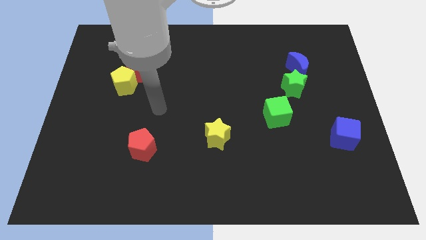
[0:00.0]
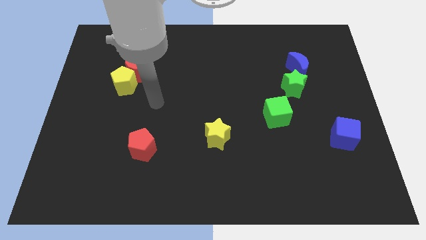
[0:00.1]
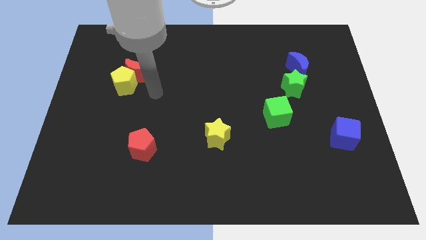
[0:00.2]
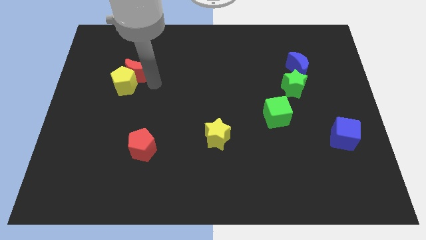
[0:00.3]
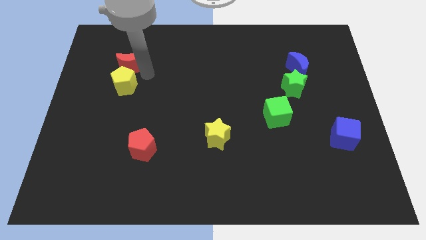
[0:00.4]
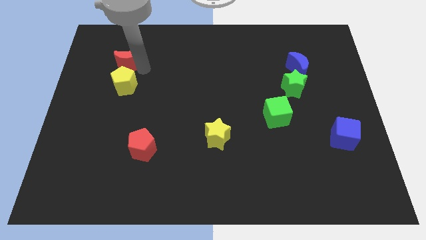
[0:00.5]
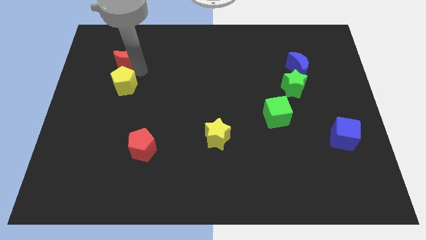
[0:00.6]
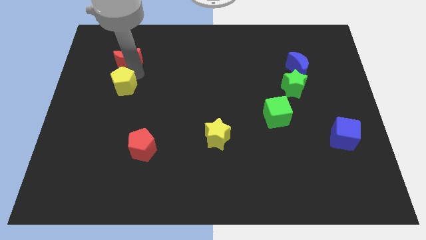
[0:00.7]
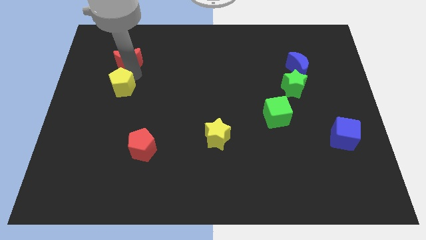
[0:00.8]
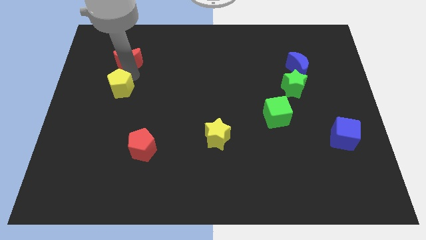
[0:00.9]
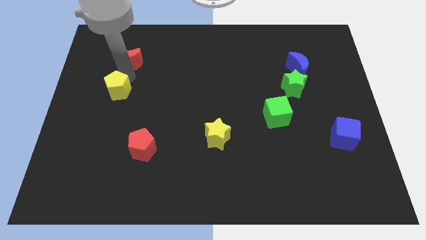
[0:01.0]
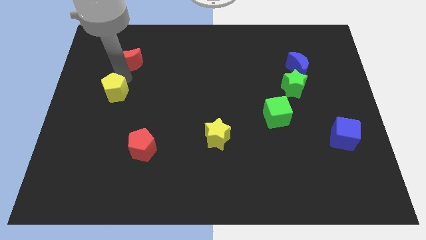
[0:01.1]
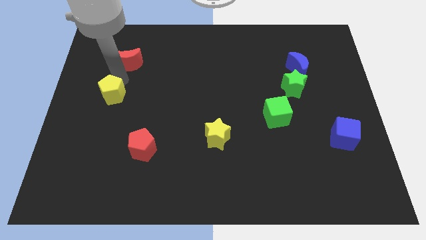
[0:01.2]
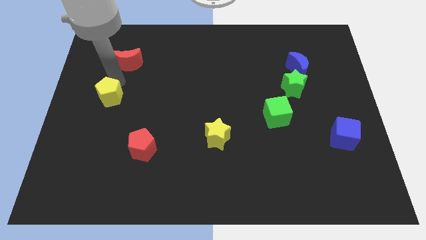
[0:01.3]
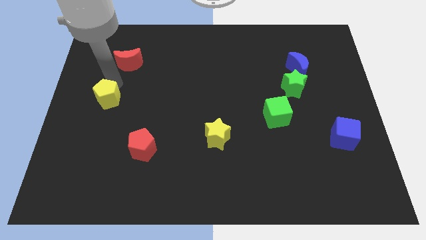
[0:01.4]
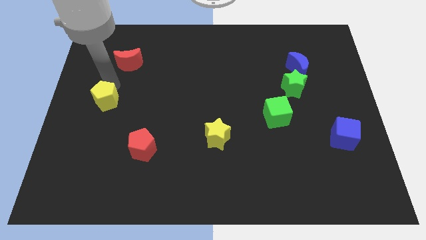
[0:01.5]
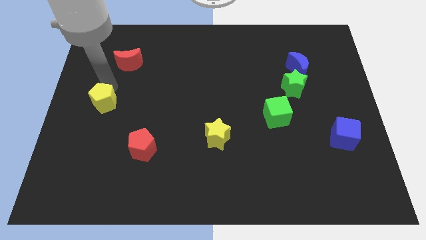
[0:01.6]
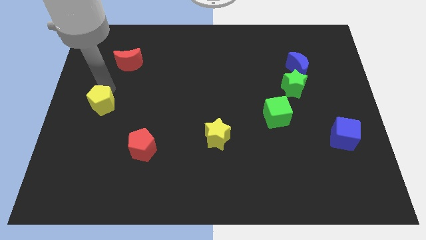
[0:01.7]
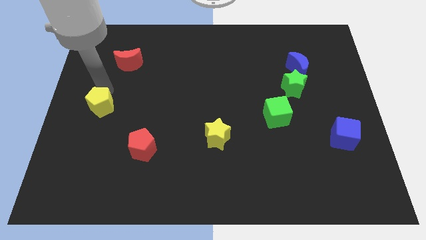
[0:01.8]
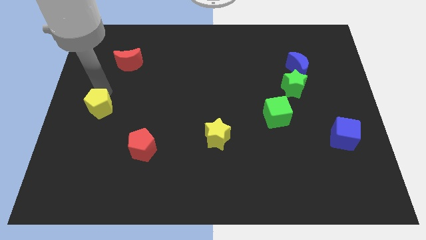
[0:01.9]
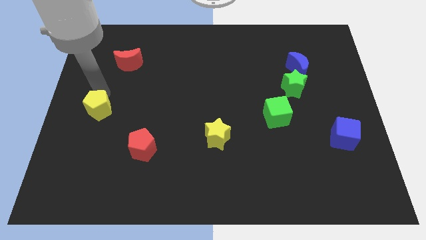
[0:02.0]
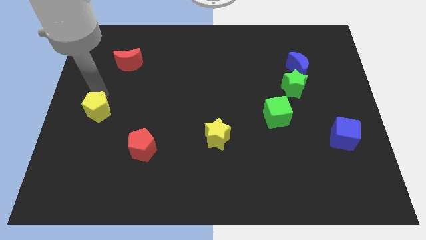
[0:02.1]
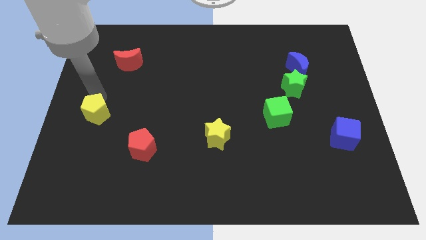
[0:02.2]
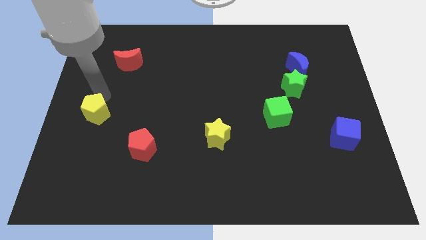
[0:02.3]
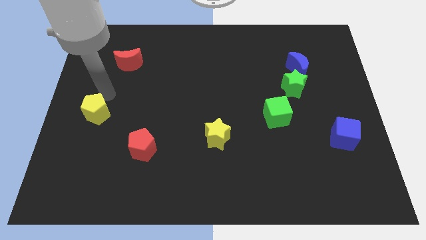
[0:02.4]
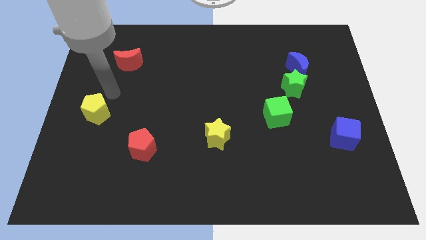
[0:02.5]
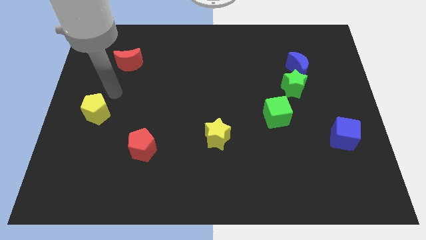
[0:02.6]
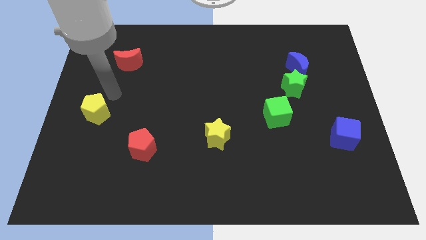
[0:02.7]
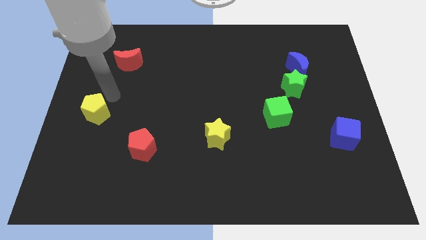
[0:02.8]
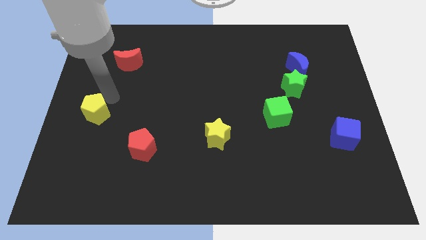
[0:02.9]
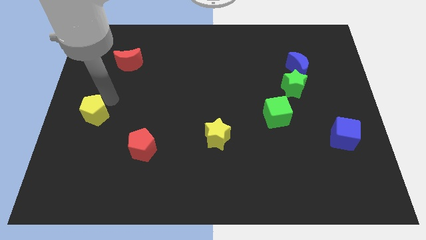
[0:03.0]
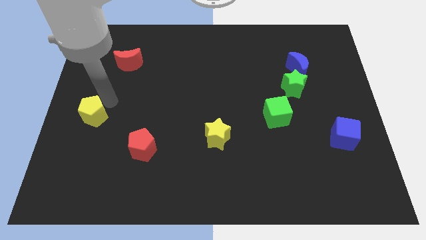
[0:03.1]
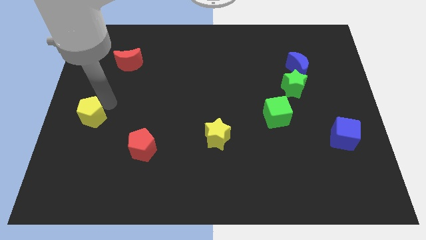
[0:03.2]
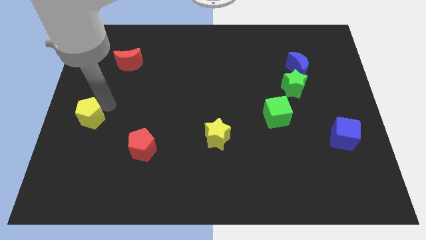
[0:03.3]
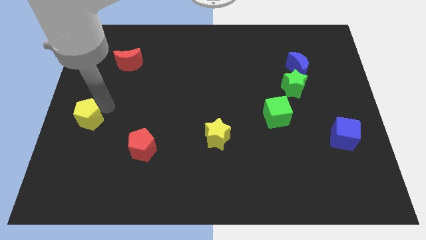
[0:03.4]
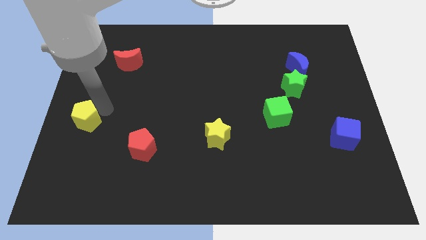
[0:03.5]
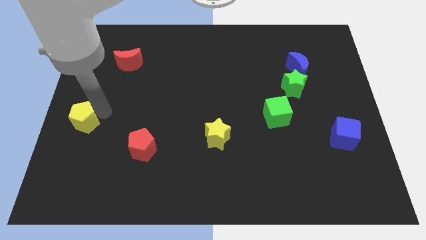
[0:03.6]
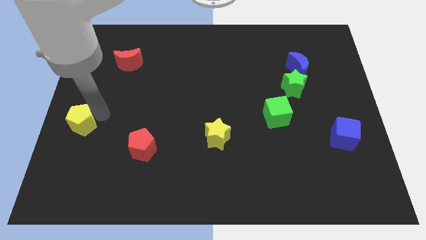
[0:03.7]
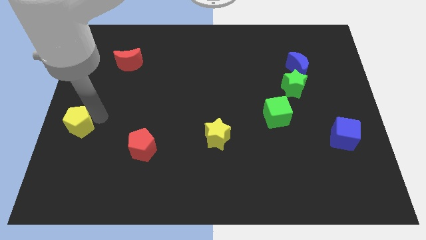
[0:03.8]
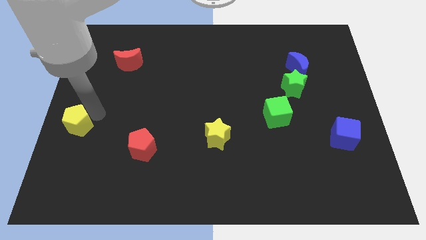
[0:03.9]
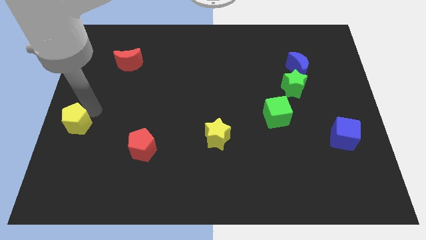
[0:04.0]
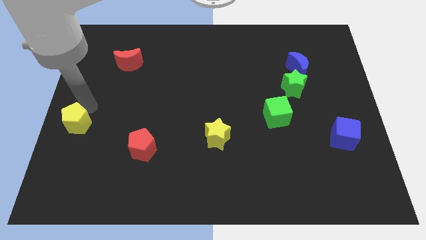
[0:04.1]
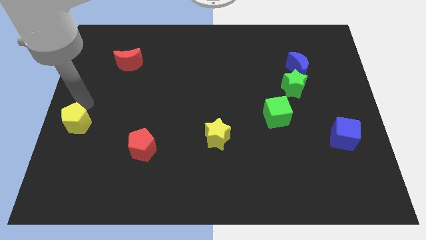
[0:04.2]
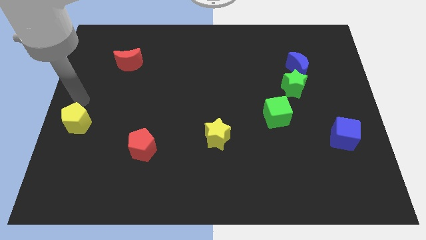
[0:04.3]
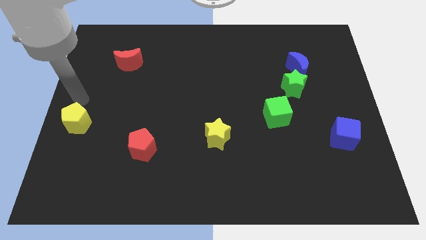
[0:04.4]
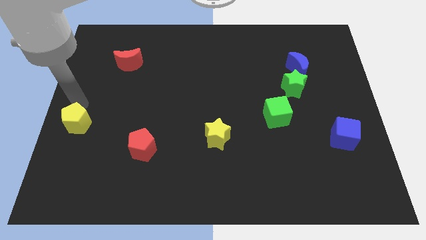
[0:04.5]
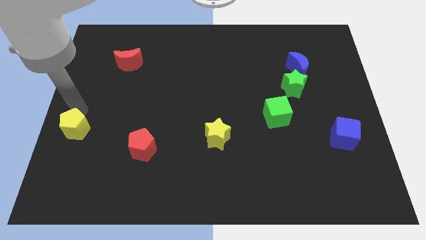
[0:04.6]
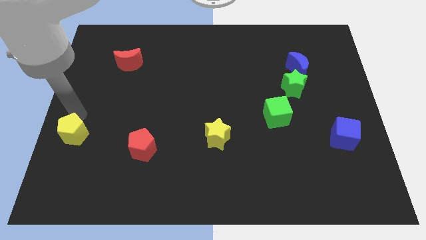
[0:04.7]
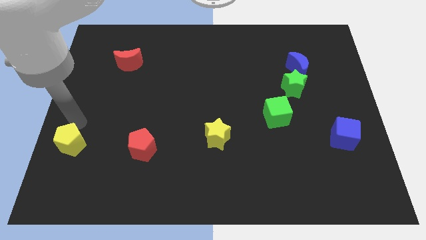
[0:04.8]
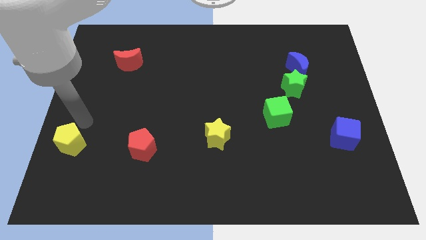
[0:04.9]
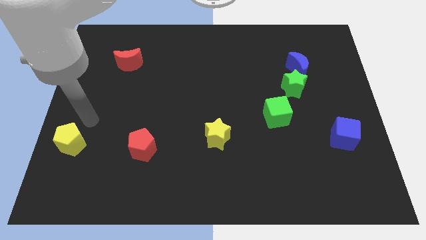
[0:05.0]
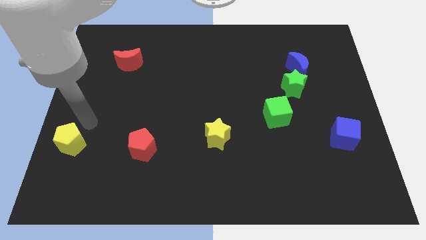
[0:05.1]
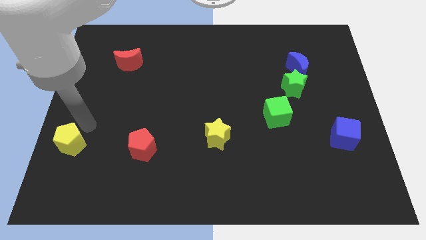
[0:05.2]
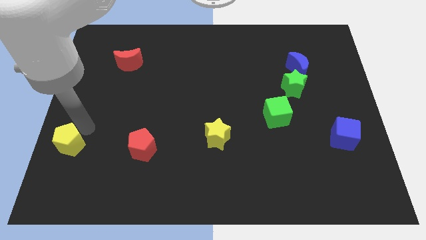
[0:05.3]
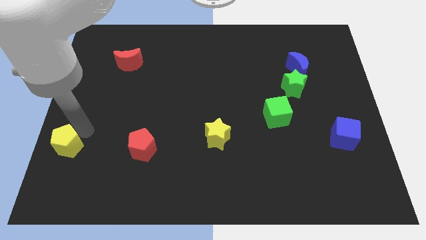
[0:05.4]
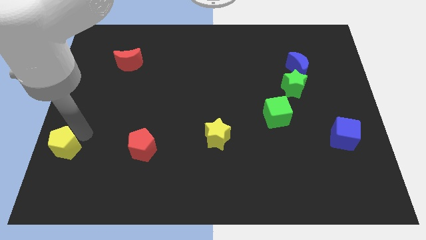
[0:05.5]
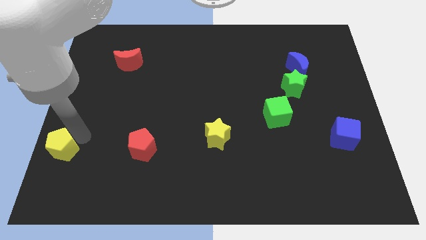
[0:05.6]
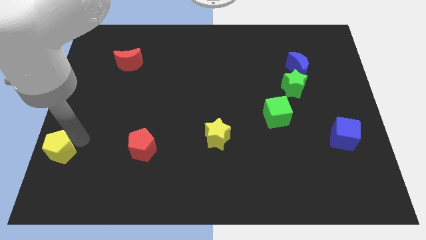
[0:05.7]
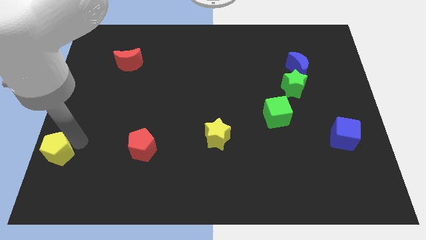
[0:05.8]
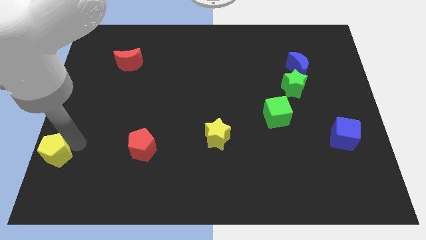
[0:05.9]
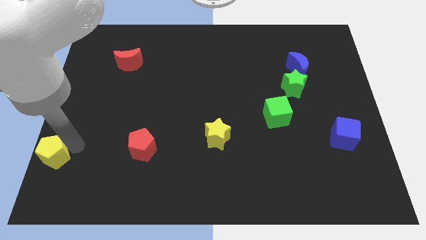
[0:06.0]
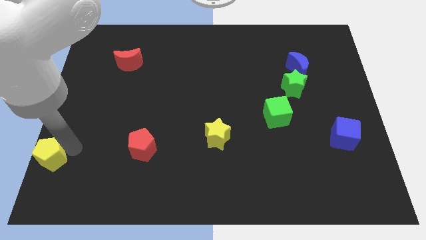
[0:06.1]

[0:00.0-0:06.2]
slide the yellow pentagon to the bottom left
